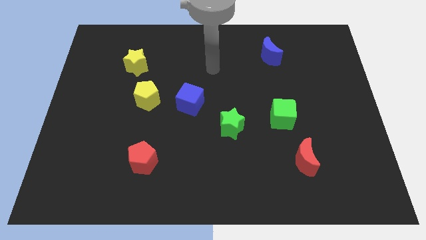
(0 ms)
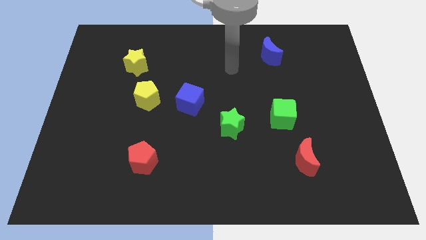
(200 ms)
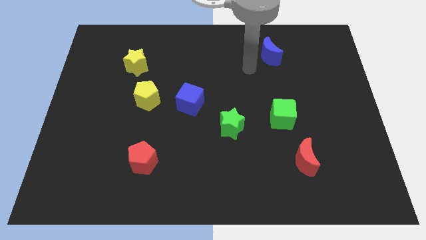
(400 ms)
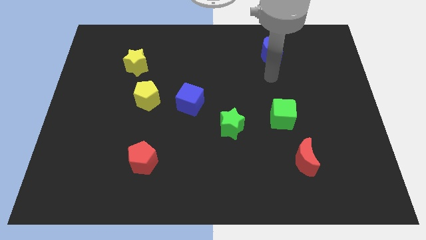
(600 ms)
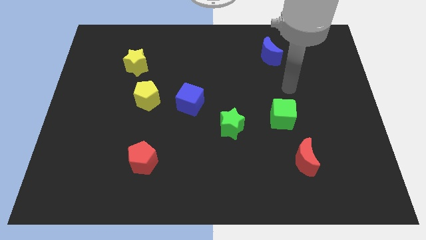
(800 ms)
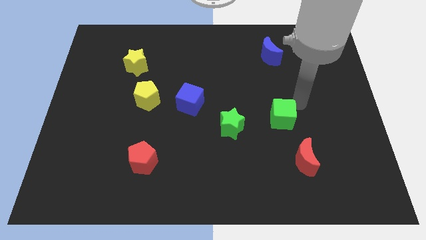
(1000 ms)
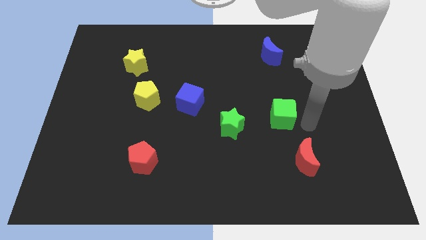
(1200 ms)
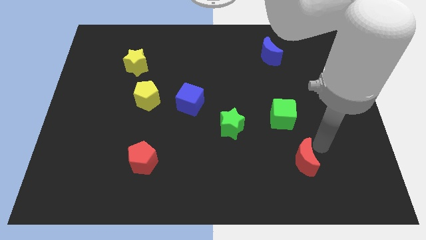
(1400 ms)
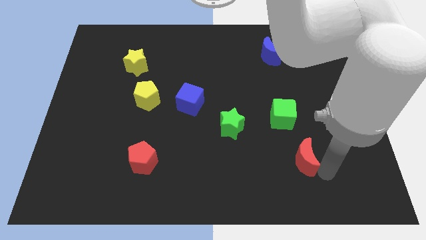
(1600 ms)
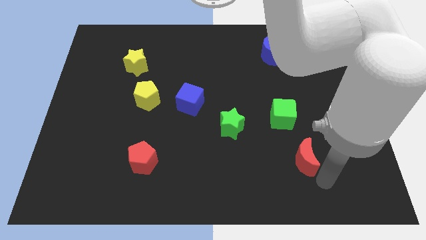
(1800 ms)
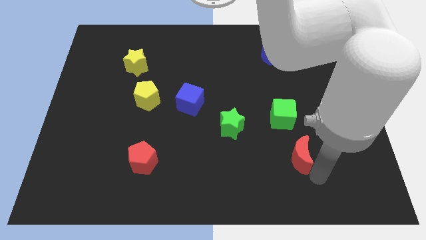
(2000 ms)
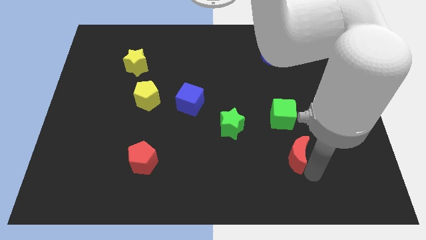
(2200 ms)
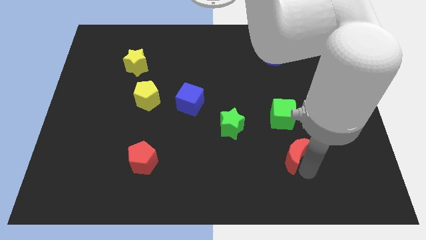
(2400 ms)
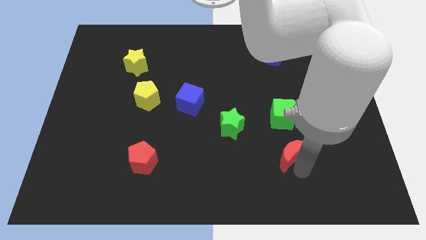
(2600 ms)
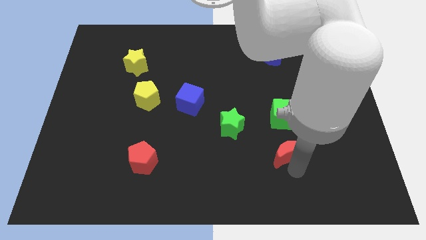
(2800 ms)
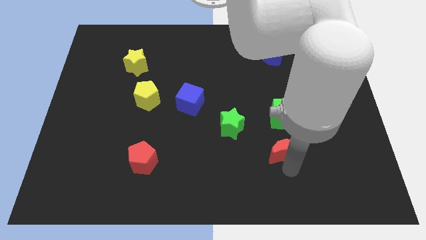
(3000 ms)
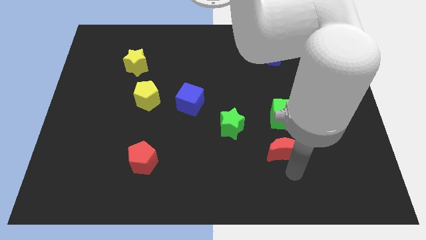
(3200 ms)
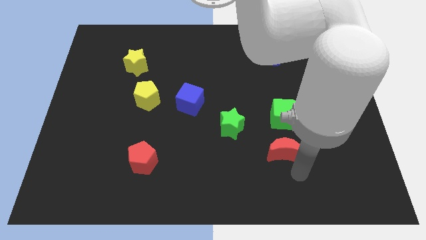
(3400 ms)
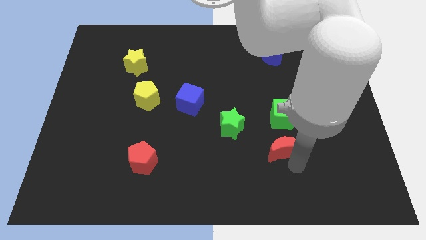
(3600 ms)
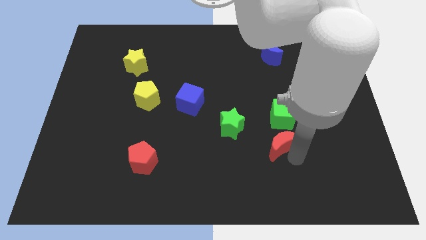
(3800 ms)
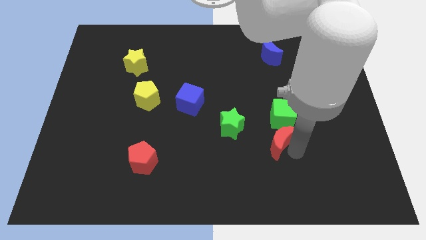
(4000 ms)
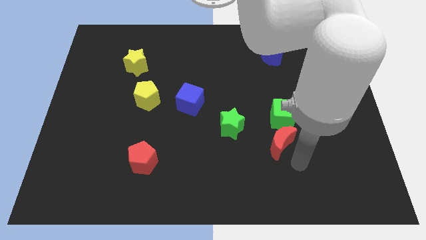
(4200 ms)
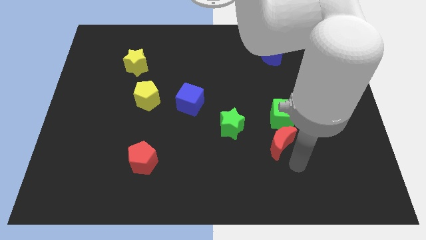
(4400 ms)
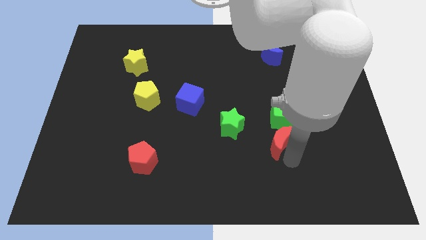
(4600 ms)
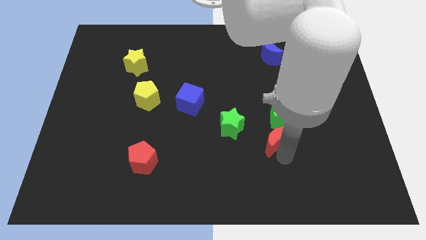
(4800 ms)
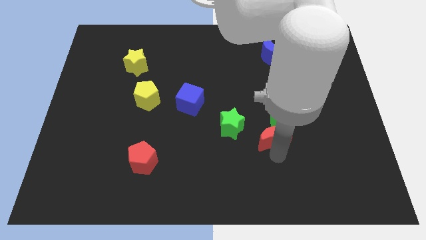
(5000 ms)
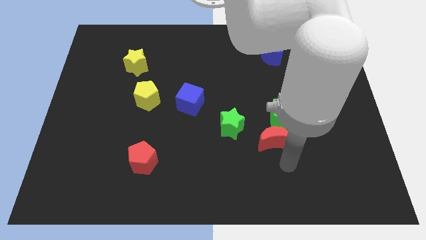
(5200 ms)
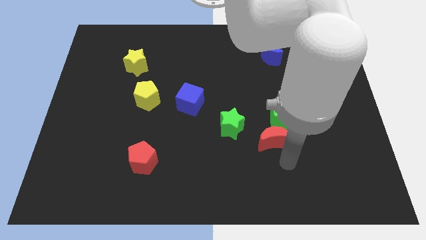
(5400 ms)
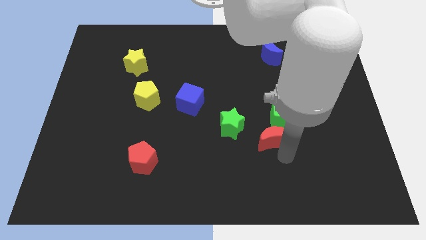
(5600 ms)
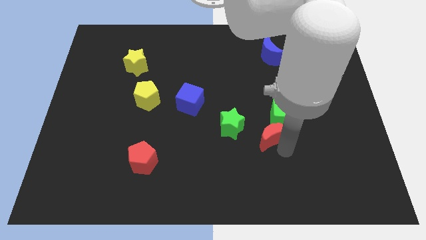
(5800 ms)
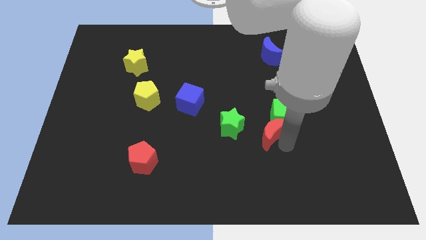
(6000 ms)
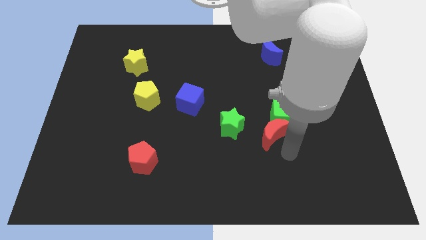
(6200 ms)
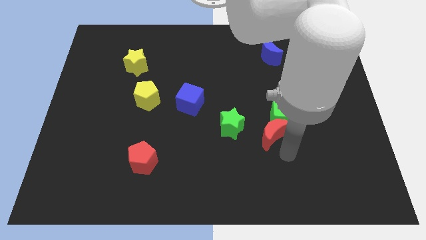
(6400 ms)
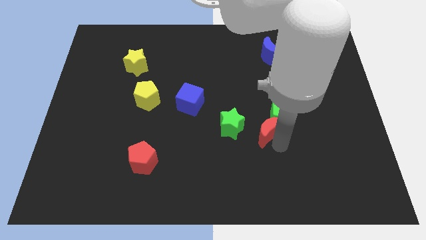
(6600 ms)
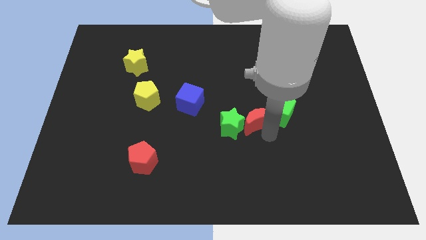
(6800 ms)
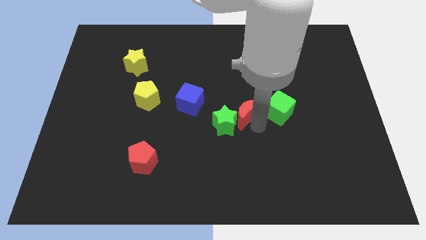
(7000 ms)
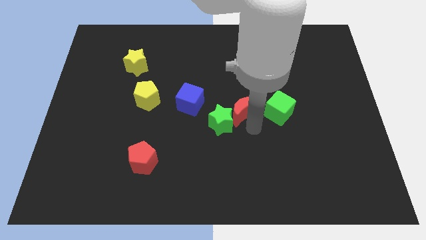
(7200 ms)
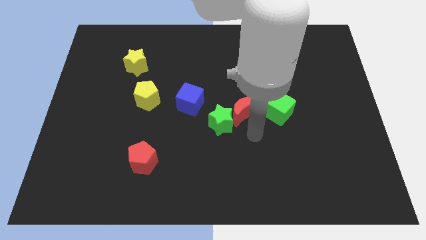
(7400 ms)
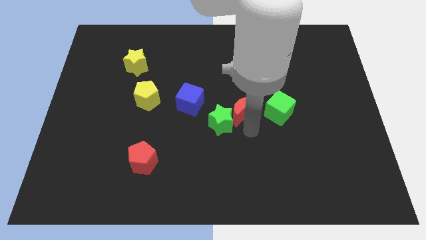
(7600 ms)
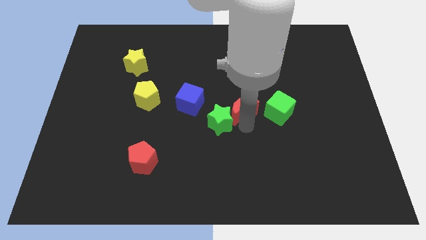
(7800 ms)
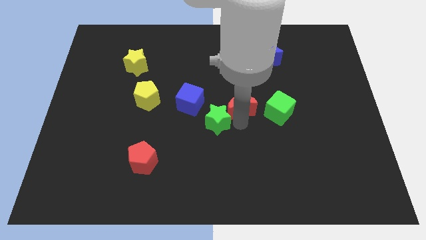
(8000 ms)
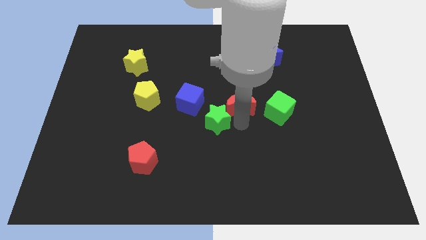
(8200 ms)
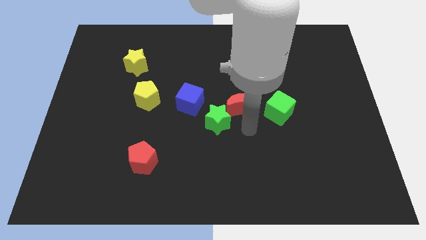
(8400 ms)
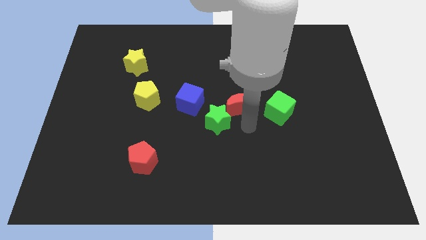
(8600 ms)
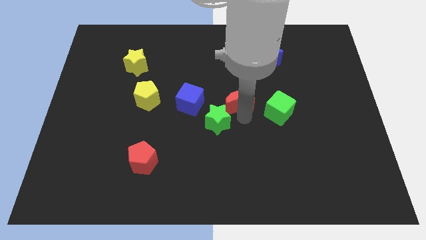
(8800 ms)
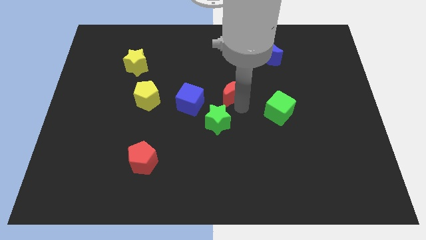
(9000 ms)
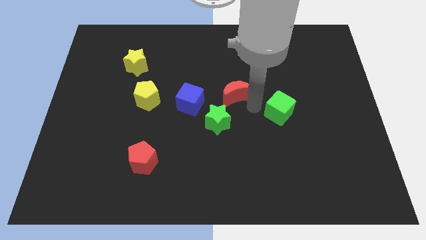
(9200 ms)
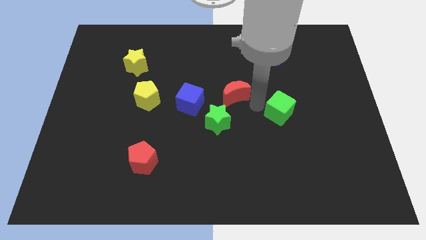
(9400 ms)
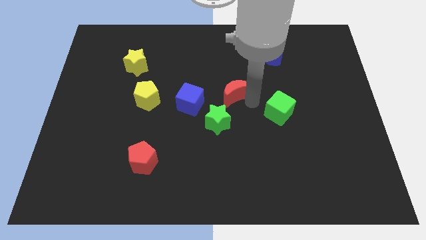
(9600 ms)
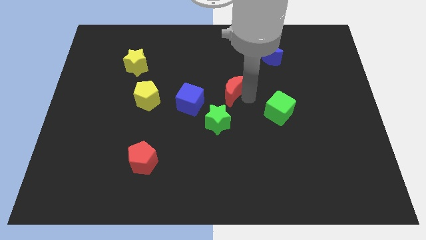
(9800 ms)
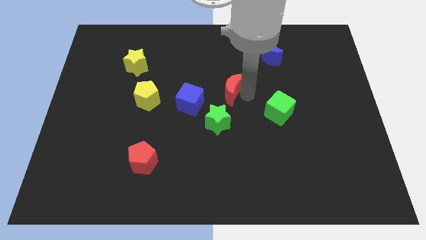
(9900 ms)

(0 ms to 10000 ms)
move the red moon diagonally up and to the right of the blue cube

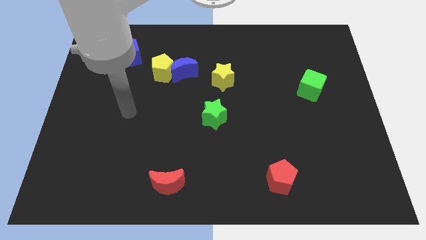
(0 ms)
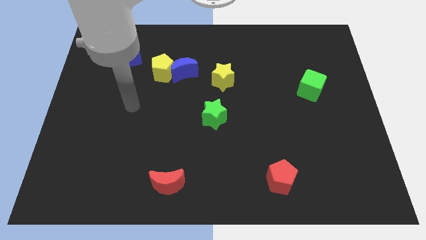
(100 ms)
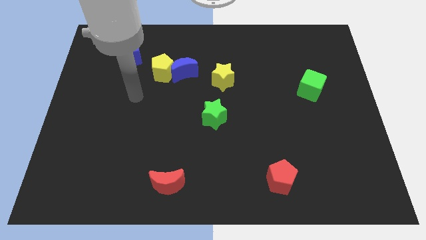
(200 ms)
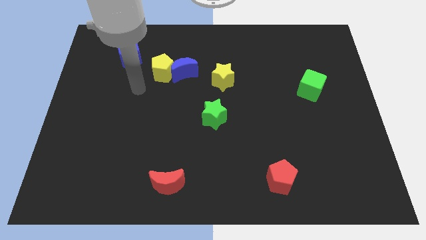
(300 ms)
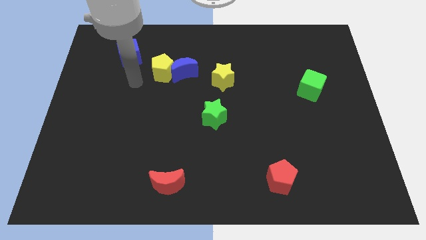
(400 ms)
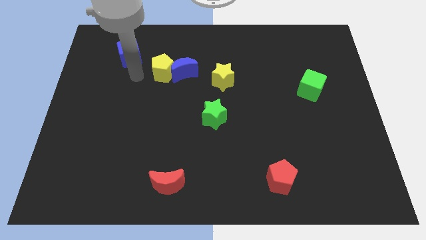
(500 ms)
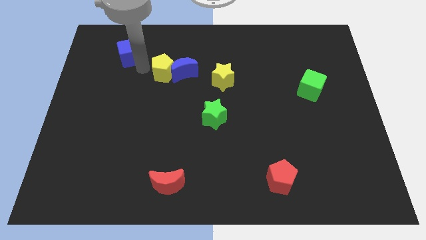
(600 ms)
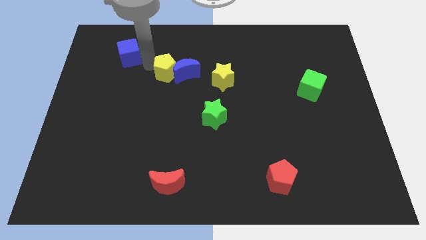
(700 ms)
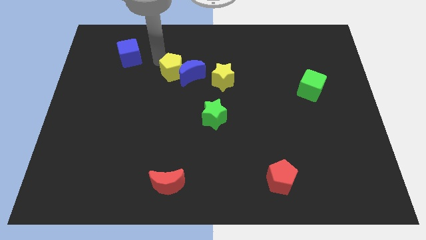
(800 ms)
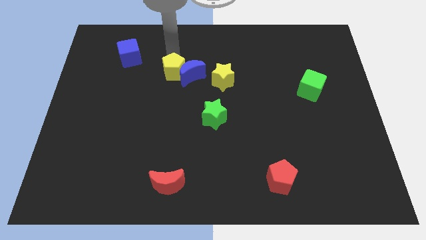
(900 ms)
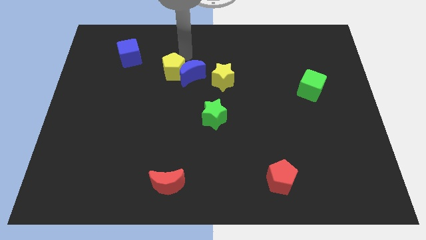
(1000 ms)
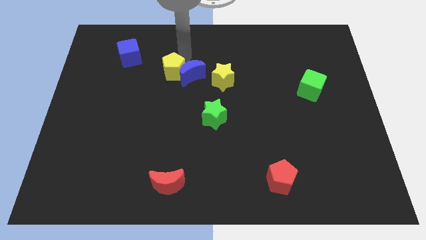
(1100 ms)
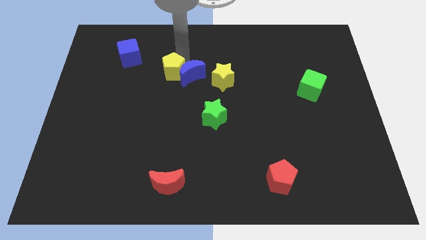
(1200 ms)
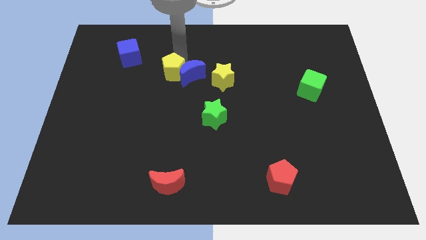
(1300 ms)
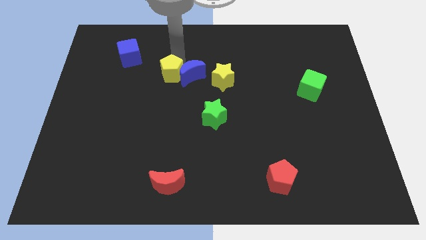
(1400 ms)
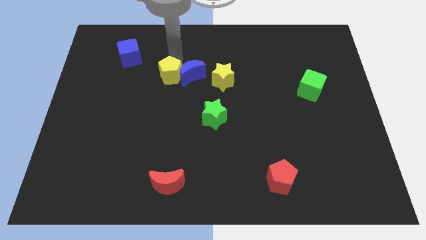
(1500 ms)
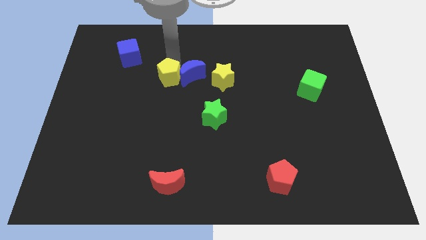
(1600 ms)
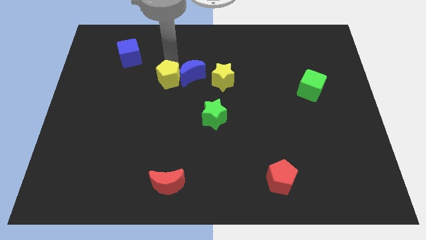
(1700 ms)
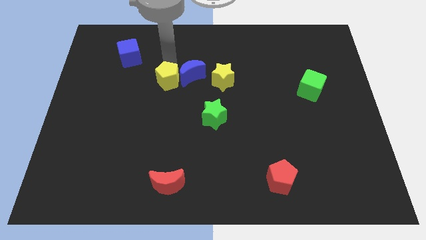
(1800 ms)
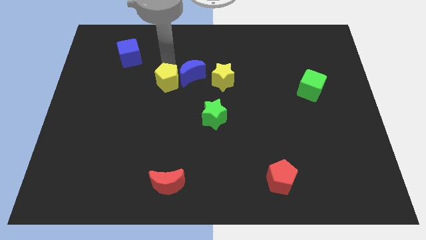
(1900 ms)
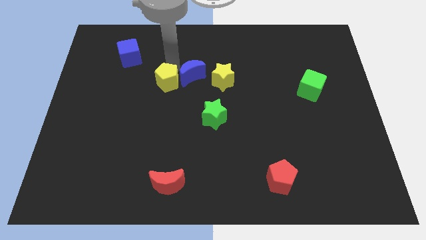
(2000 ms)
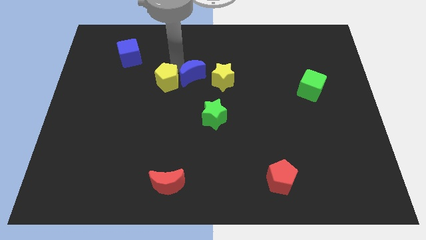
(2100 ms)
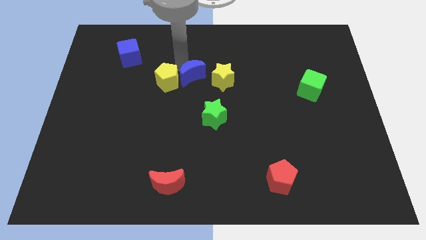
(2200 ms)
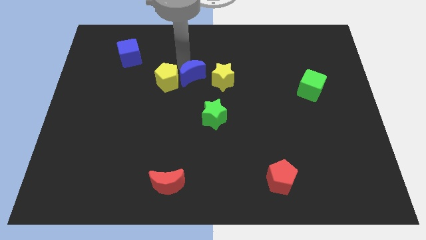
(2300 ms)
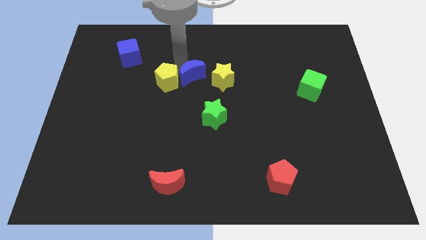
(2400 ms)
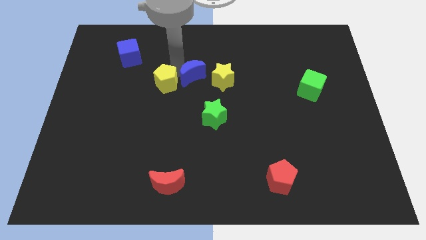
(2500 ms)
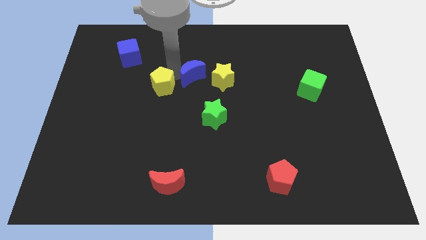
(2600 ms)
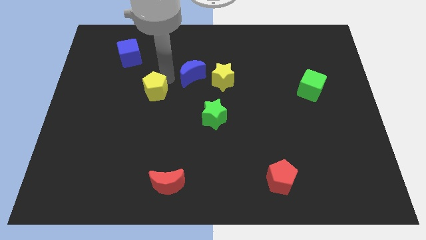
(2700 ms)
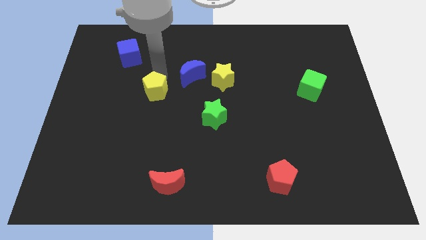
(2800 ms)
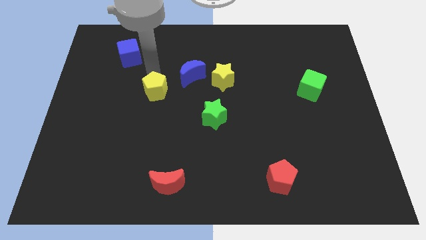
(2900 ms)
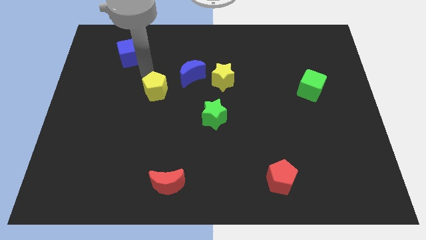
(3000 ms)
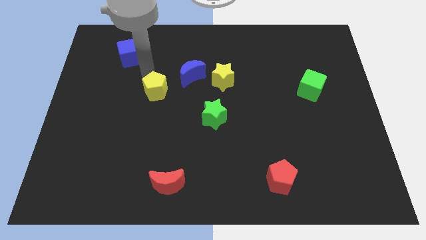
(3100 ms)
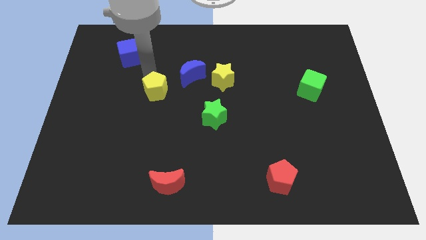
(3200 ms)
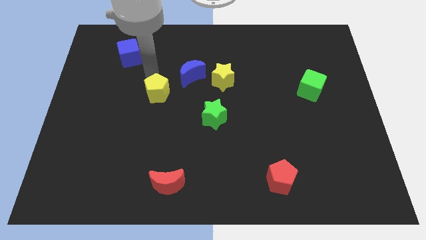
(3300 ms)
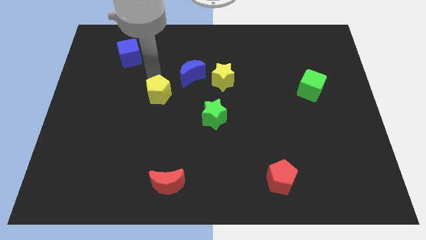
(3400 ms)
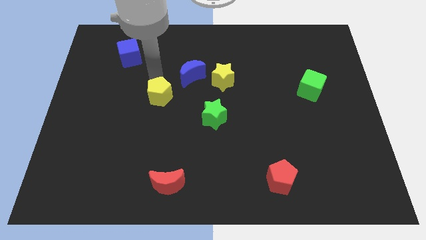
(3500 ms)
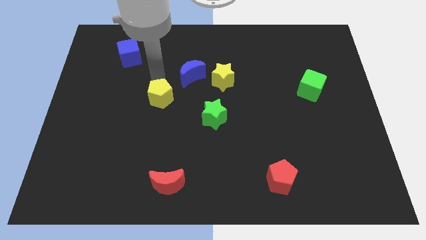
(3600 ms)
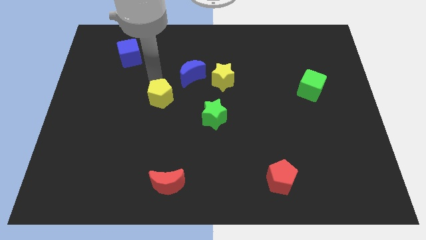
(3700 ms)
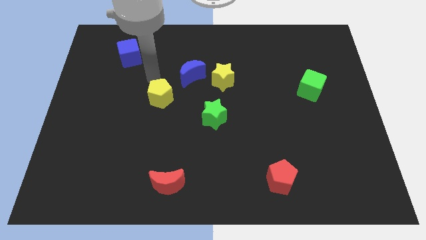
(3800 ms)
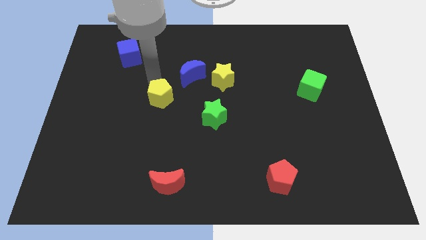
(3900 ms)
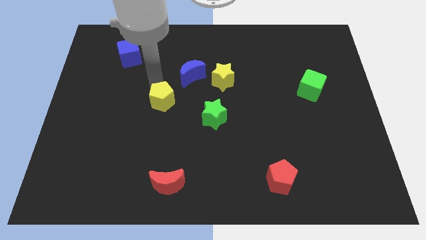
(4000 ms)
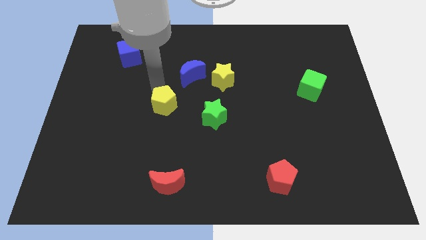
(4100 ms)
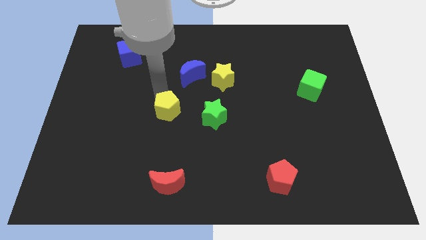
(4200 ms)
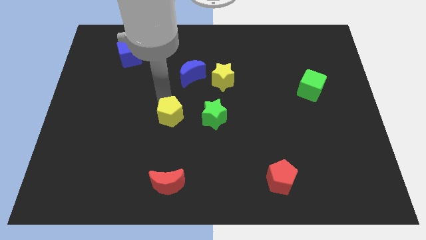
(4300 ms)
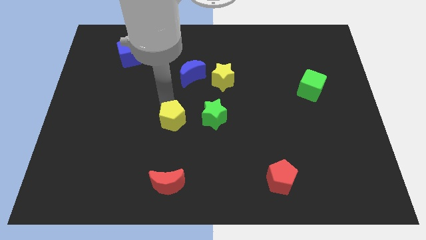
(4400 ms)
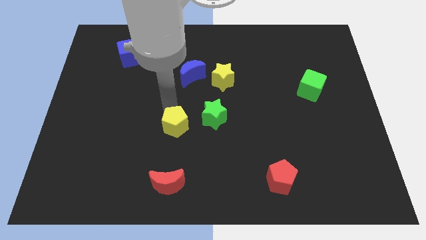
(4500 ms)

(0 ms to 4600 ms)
push the yellow pentagon above the red moon
